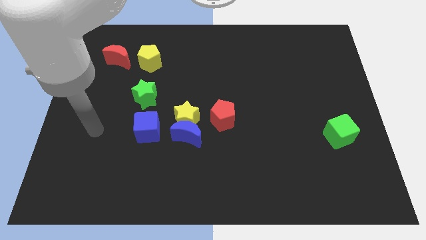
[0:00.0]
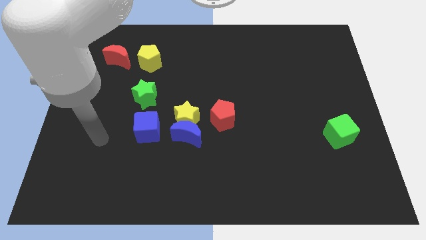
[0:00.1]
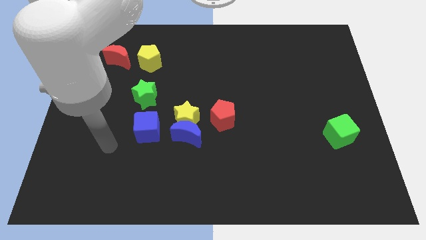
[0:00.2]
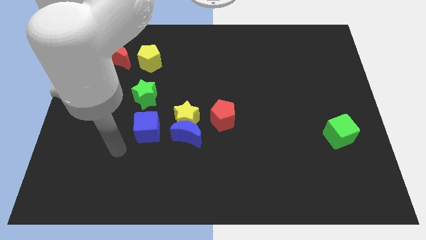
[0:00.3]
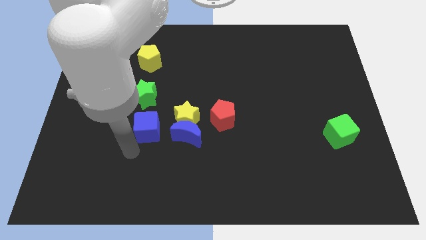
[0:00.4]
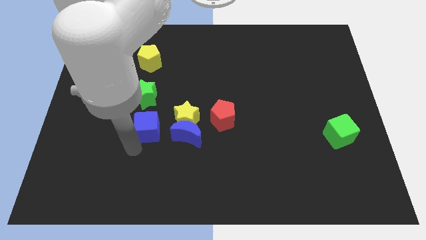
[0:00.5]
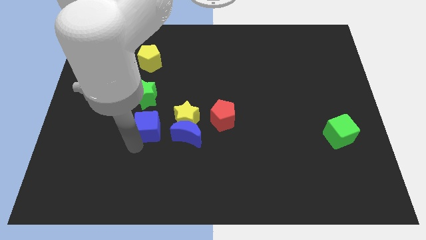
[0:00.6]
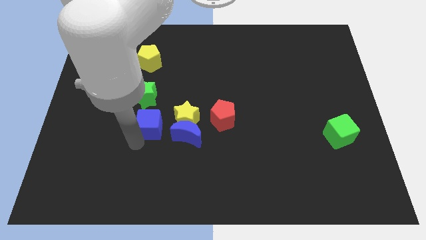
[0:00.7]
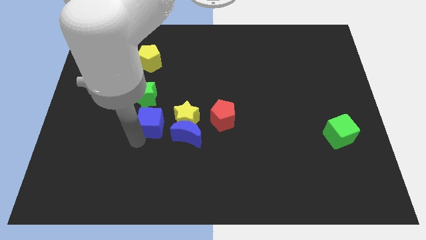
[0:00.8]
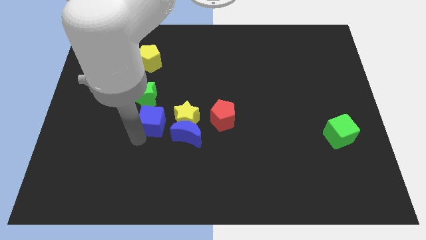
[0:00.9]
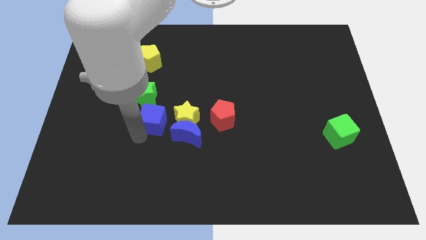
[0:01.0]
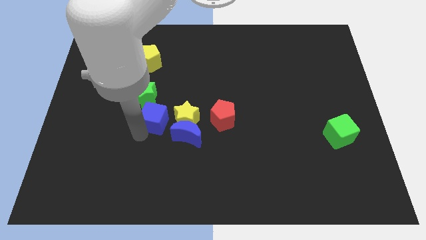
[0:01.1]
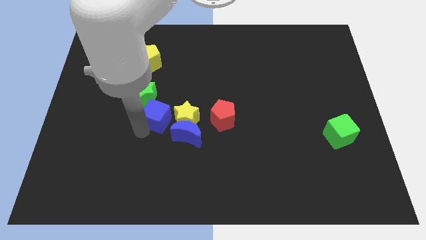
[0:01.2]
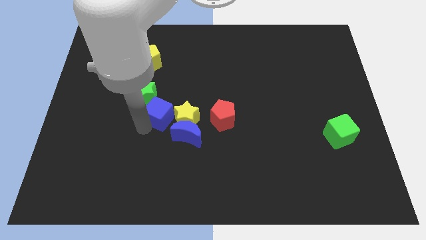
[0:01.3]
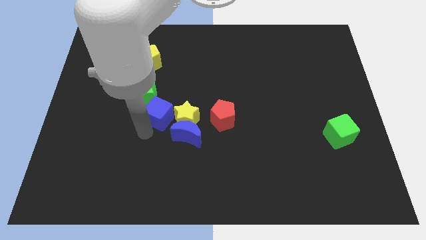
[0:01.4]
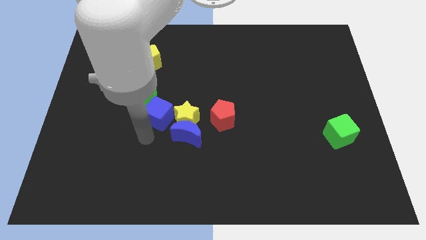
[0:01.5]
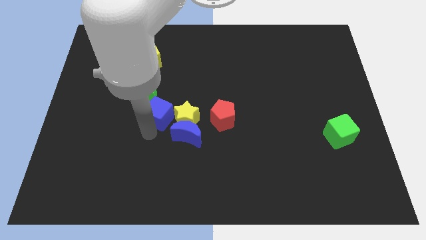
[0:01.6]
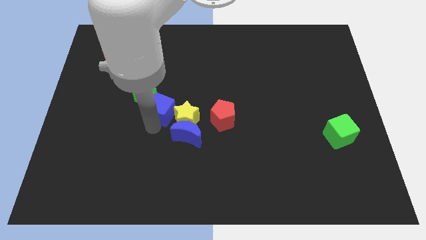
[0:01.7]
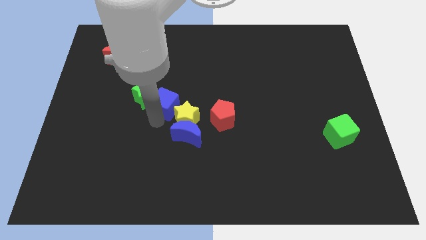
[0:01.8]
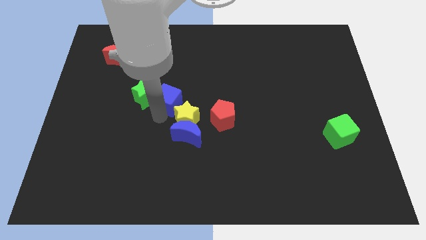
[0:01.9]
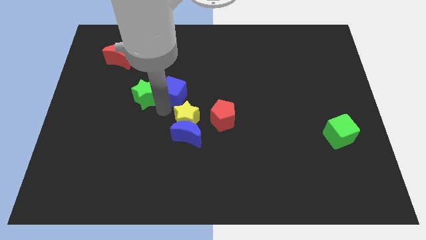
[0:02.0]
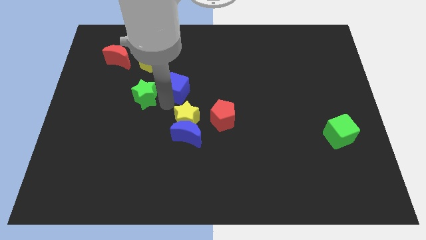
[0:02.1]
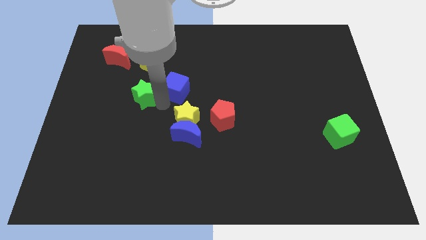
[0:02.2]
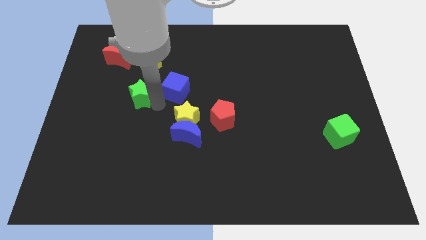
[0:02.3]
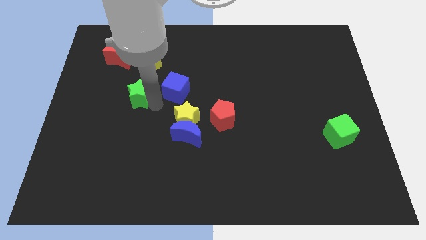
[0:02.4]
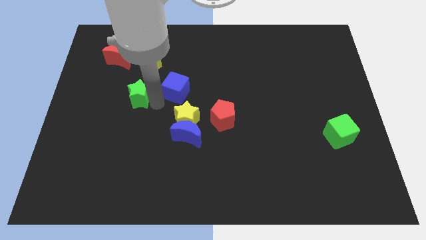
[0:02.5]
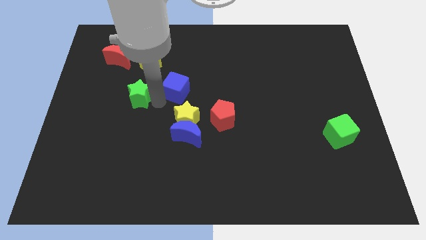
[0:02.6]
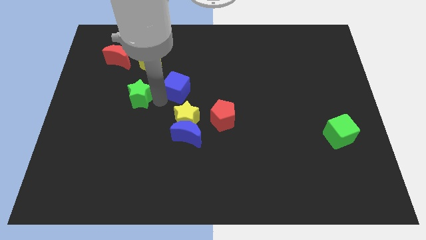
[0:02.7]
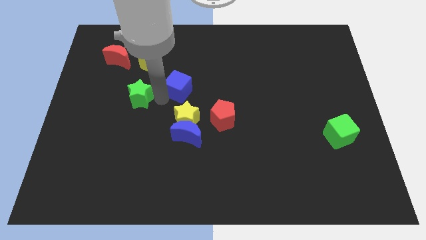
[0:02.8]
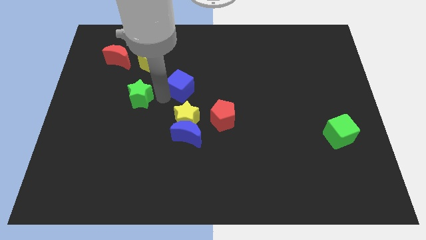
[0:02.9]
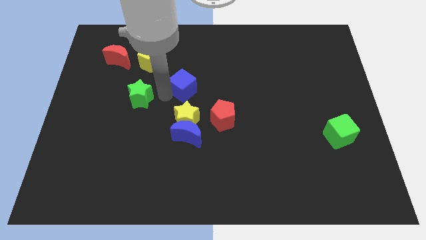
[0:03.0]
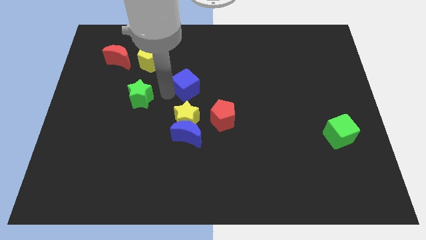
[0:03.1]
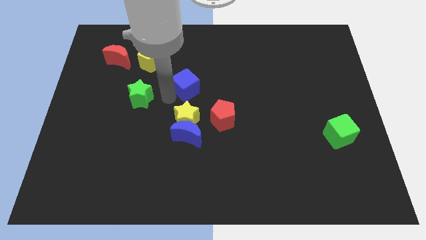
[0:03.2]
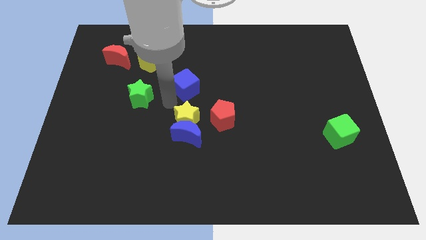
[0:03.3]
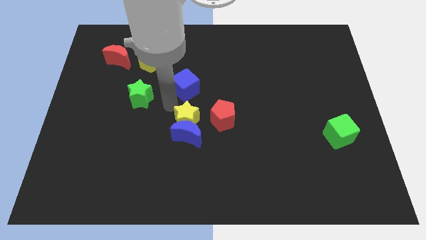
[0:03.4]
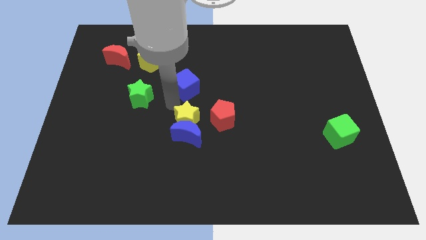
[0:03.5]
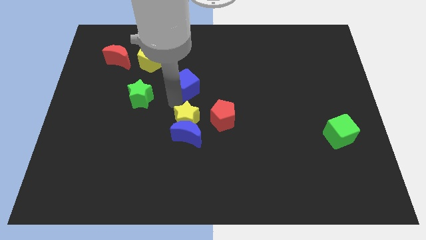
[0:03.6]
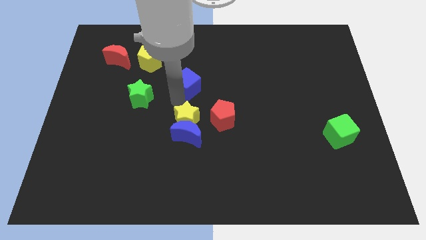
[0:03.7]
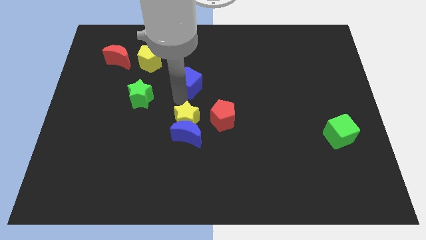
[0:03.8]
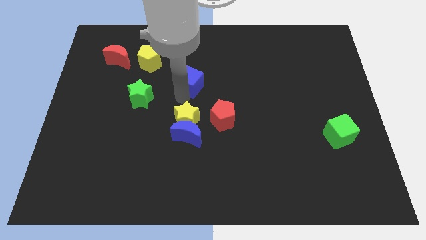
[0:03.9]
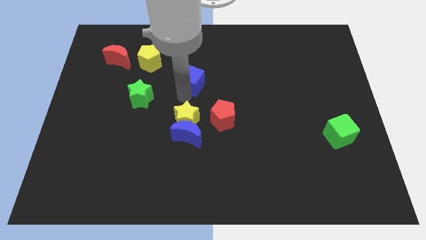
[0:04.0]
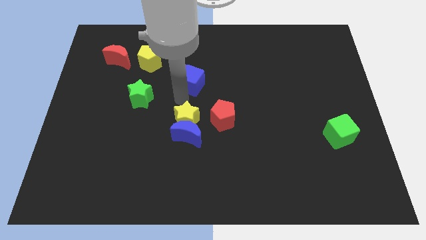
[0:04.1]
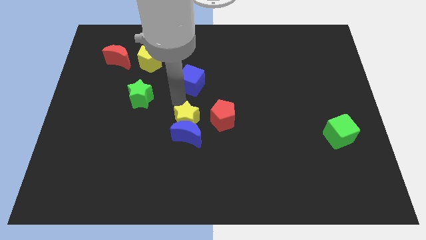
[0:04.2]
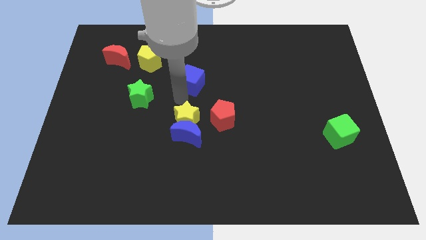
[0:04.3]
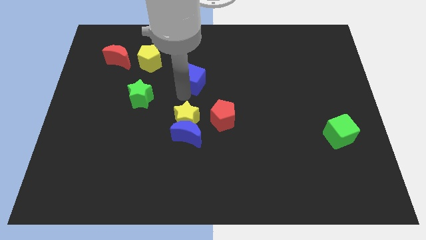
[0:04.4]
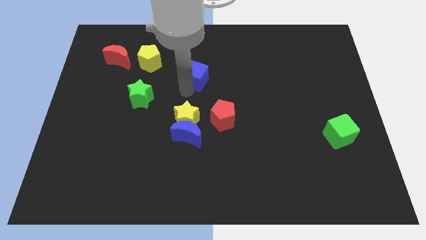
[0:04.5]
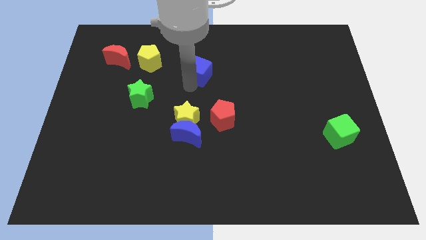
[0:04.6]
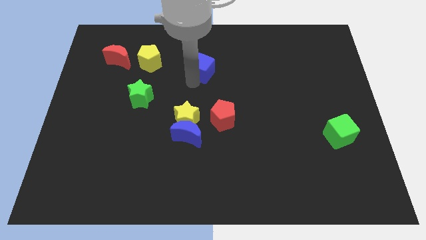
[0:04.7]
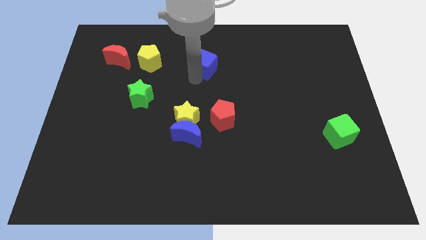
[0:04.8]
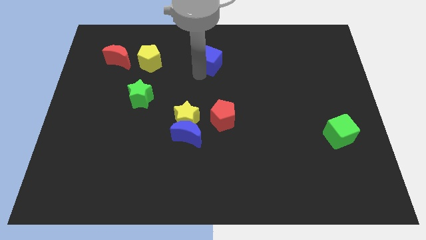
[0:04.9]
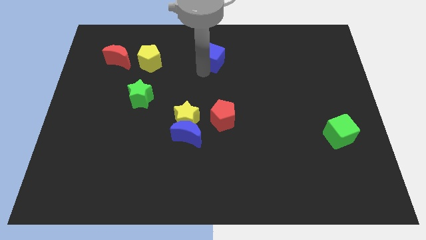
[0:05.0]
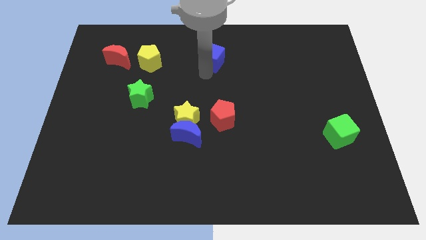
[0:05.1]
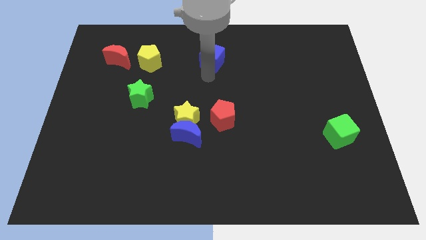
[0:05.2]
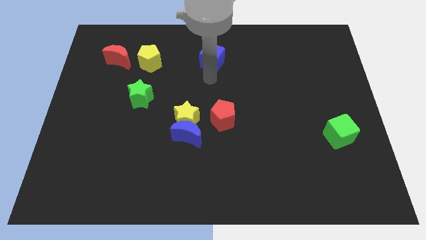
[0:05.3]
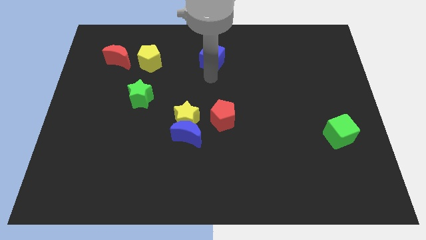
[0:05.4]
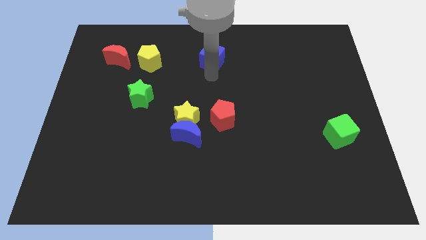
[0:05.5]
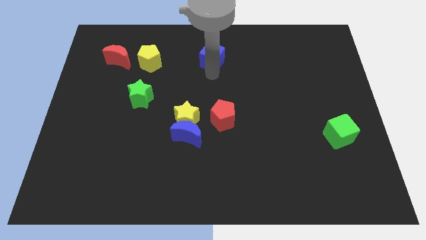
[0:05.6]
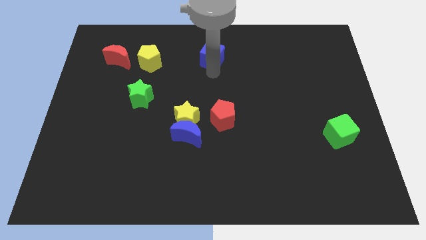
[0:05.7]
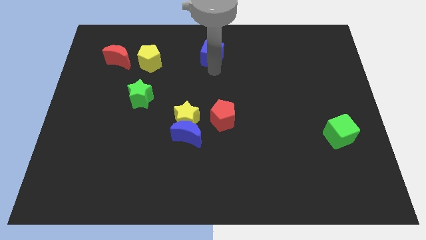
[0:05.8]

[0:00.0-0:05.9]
put the blue cube to the top side

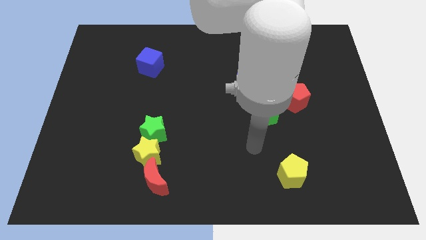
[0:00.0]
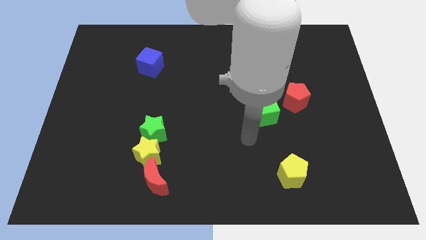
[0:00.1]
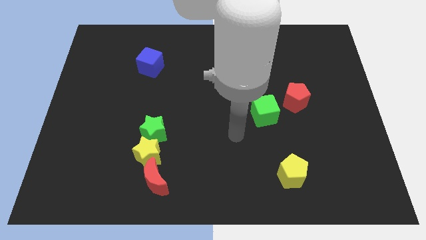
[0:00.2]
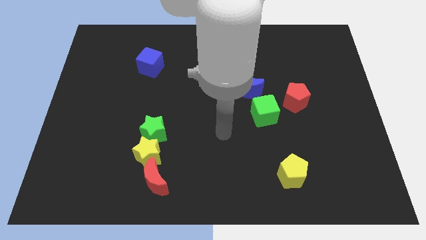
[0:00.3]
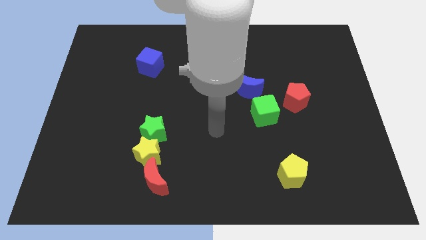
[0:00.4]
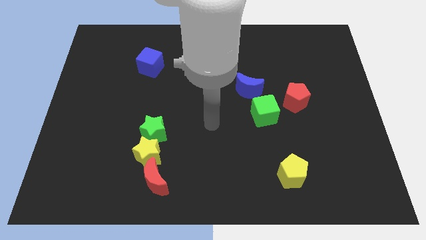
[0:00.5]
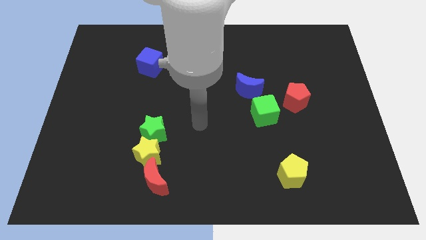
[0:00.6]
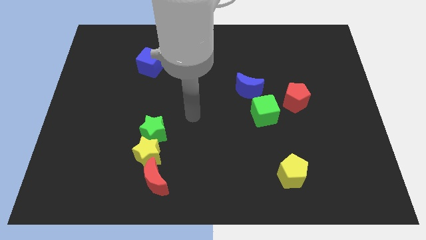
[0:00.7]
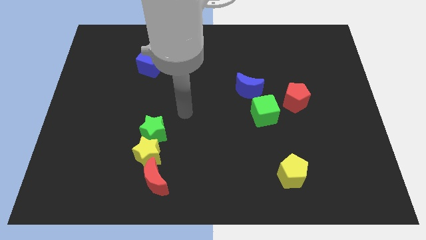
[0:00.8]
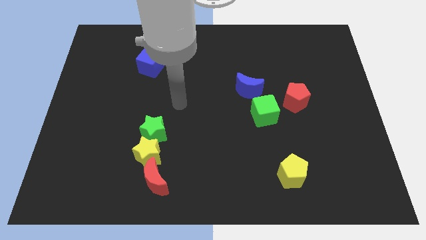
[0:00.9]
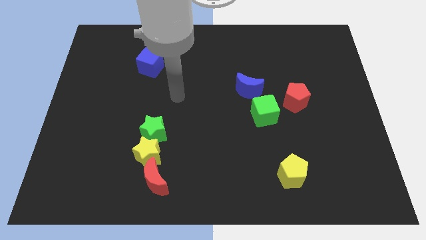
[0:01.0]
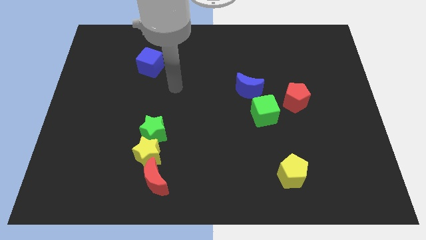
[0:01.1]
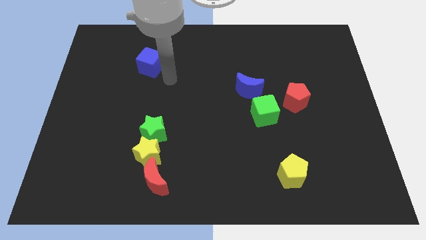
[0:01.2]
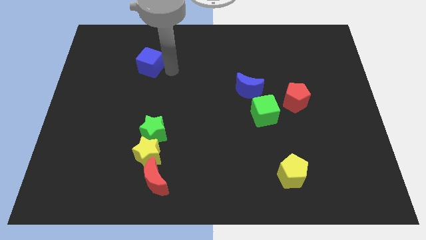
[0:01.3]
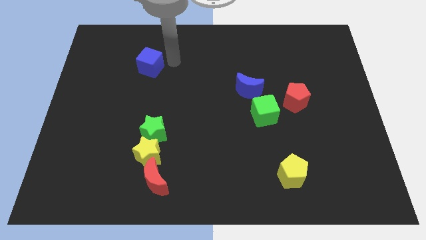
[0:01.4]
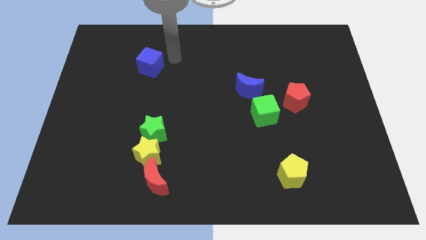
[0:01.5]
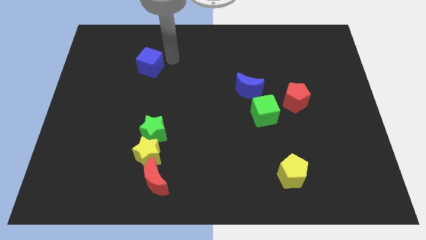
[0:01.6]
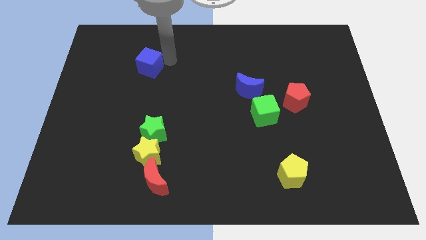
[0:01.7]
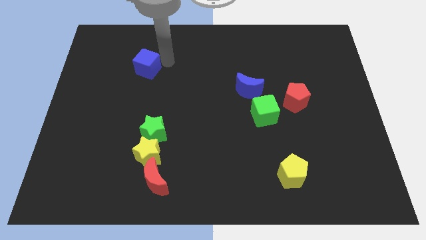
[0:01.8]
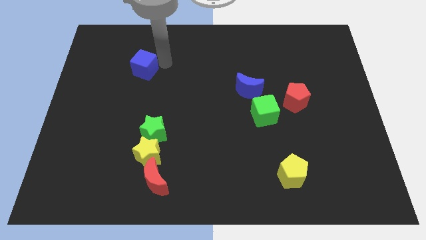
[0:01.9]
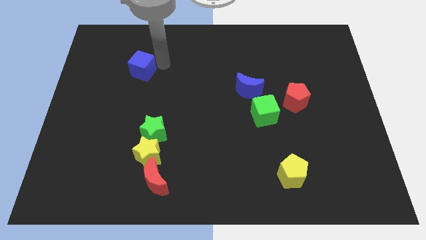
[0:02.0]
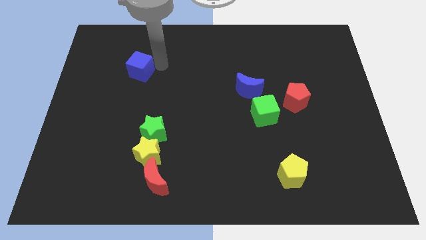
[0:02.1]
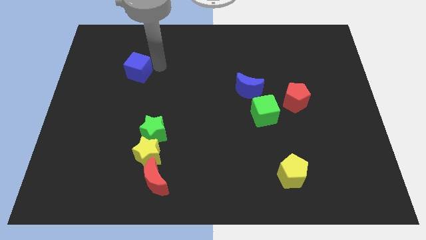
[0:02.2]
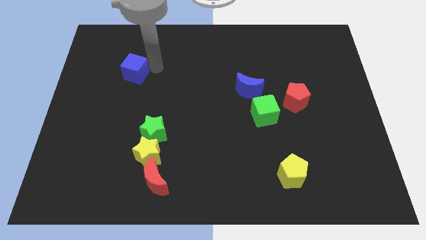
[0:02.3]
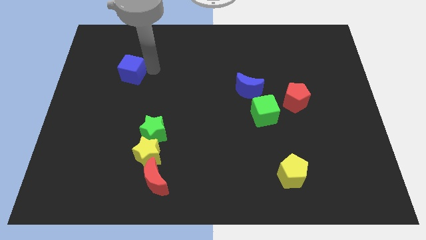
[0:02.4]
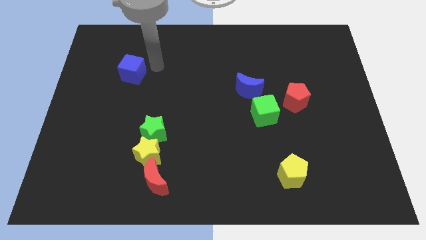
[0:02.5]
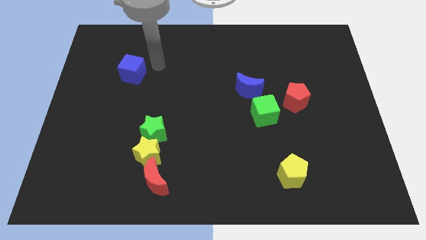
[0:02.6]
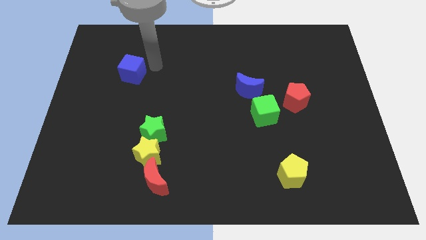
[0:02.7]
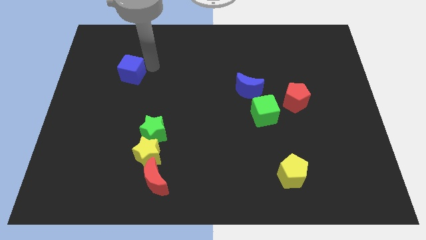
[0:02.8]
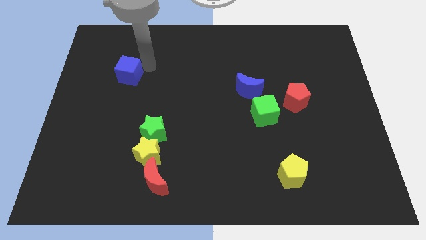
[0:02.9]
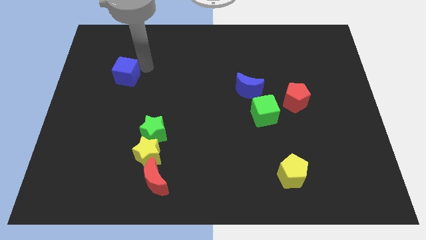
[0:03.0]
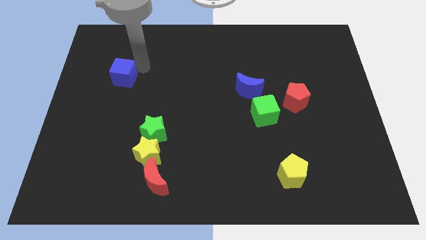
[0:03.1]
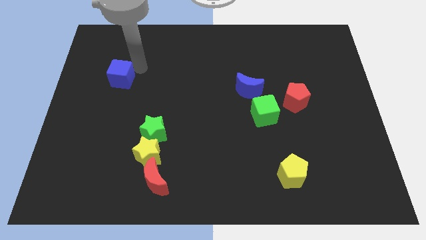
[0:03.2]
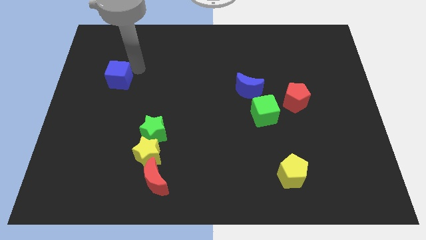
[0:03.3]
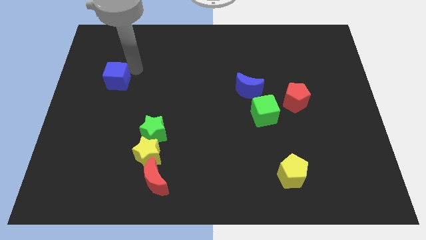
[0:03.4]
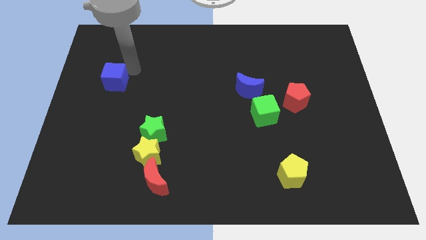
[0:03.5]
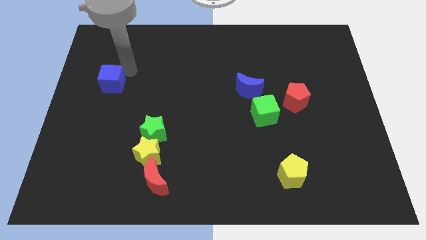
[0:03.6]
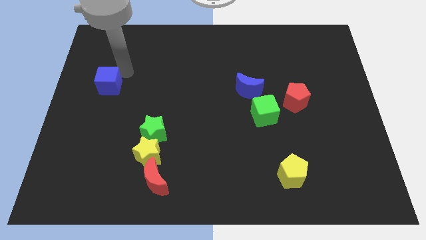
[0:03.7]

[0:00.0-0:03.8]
put the blue cube to the left side of the board
